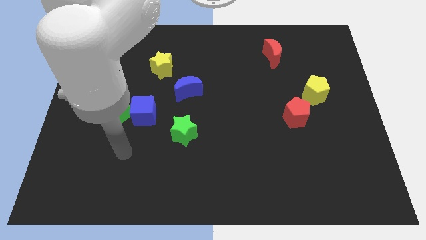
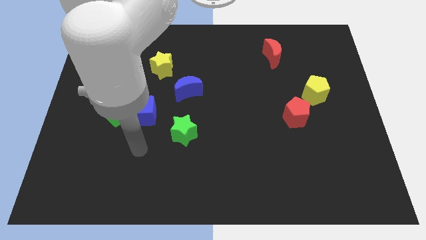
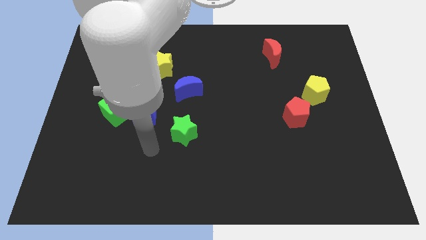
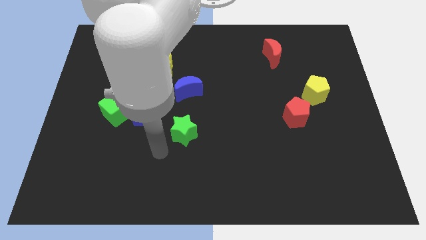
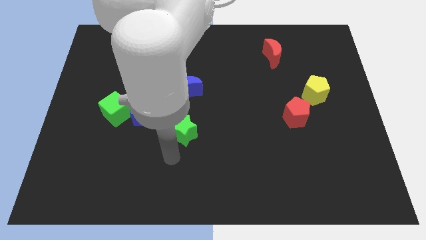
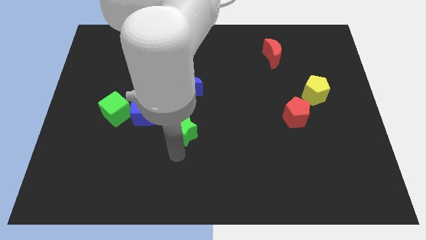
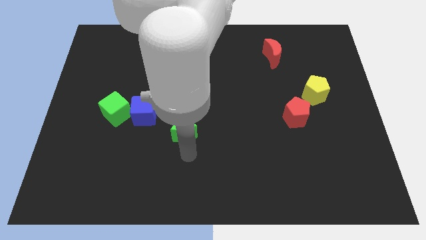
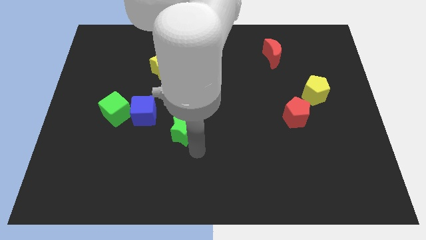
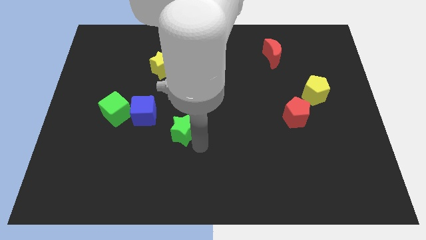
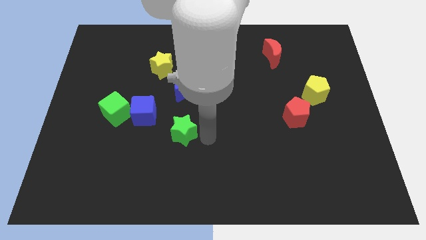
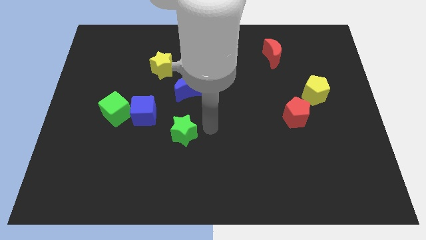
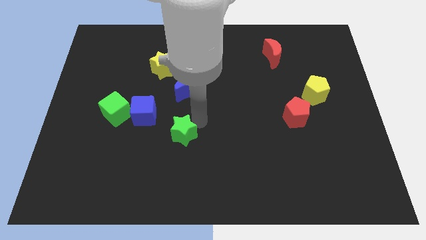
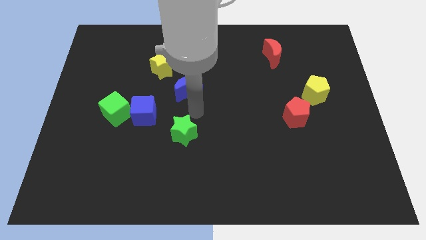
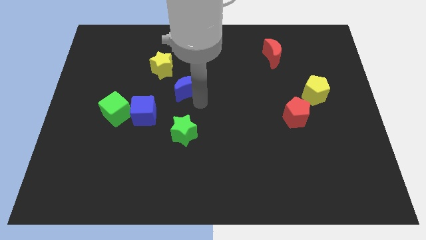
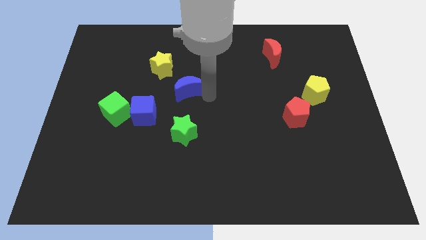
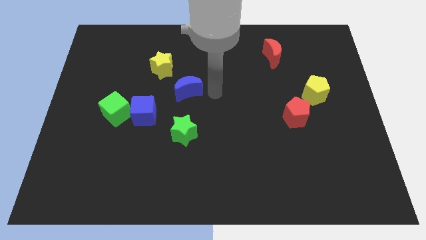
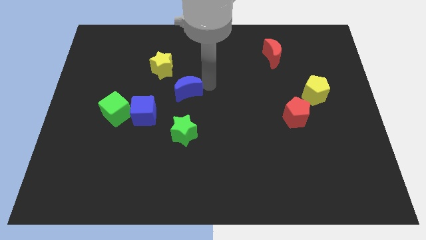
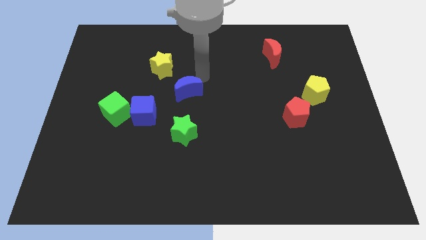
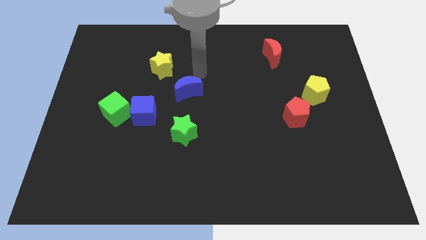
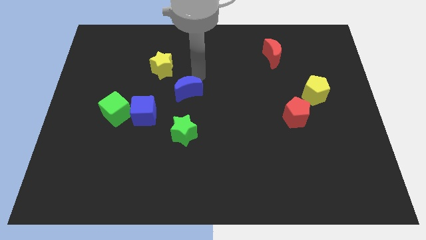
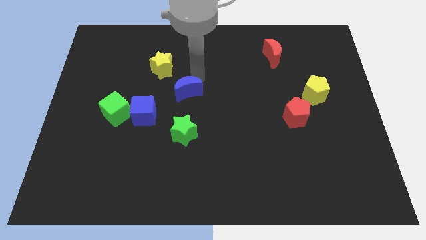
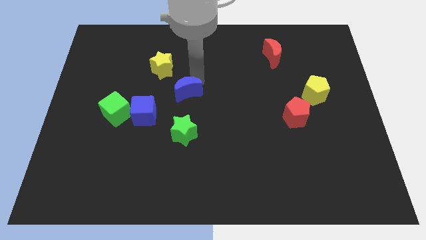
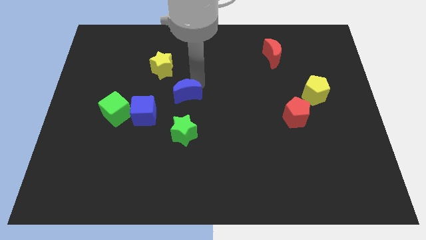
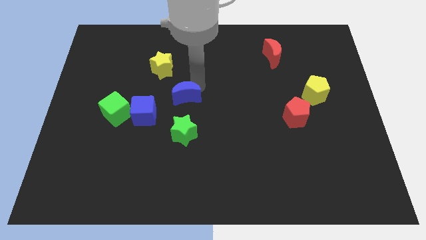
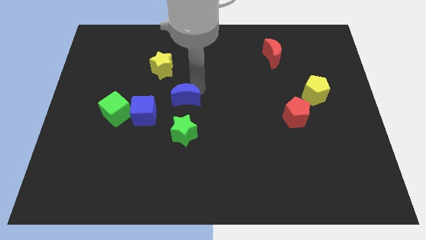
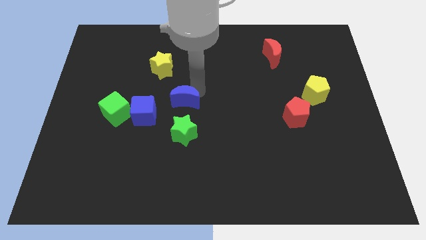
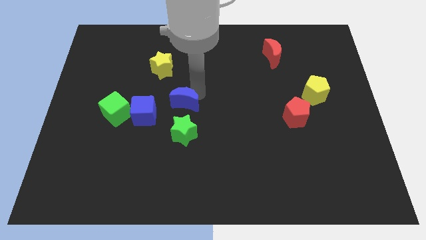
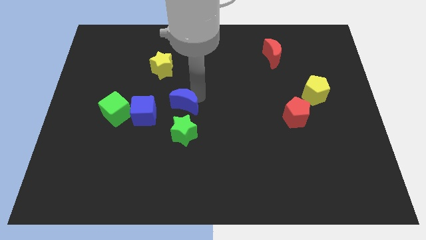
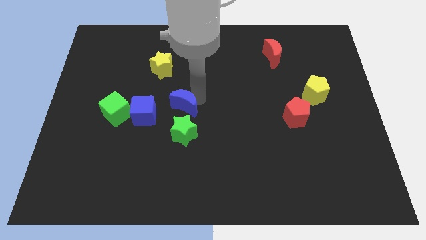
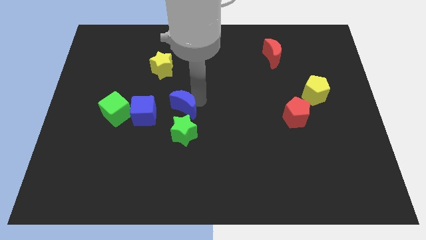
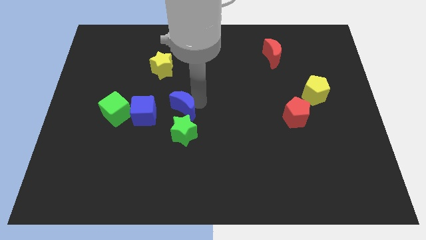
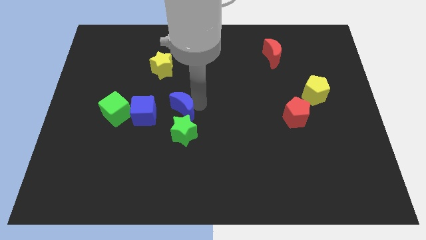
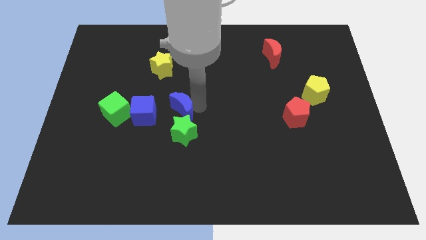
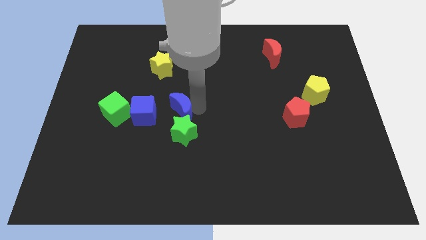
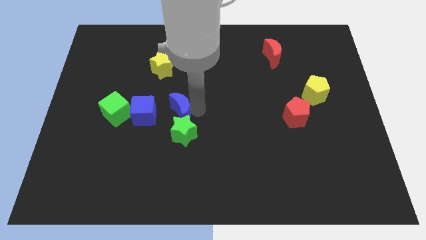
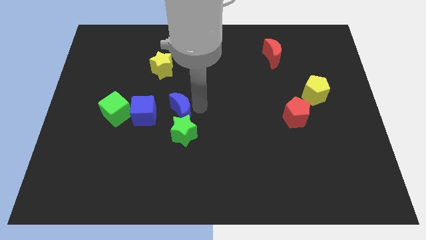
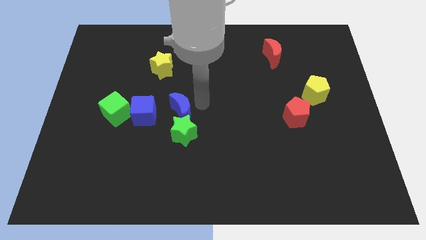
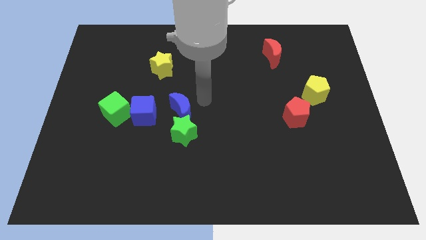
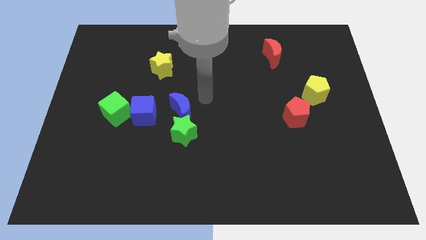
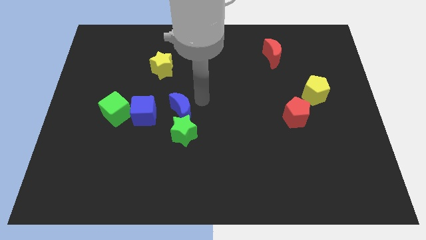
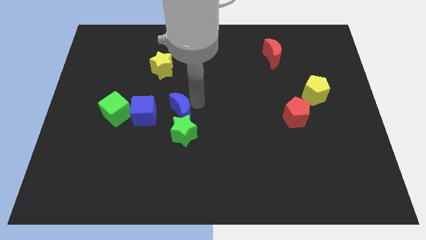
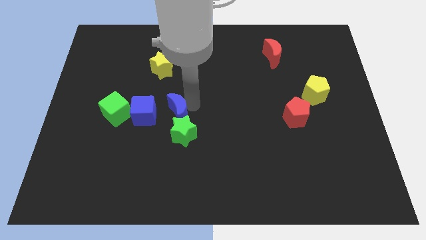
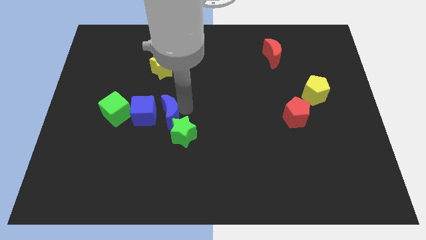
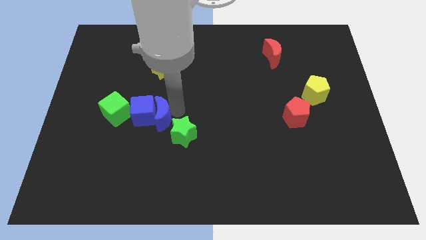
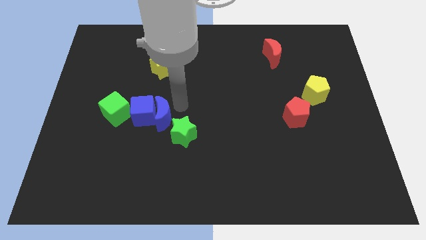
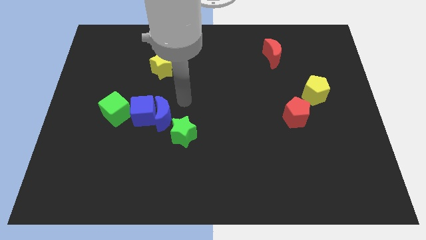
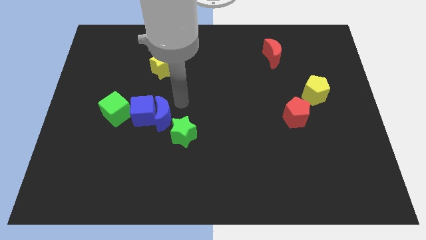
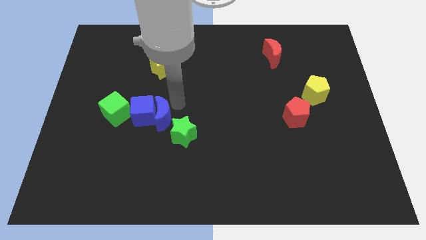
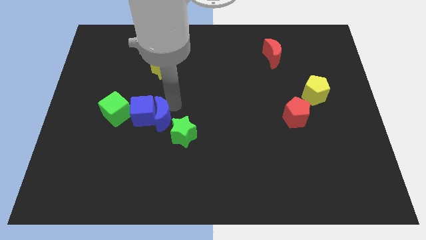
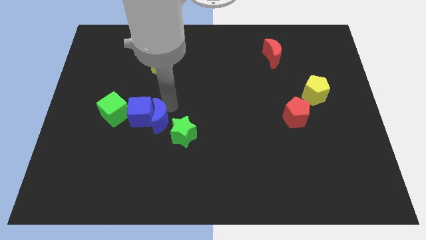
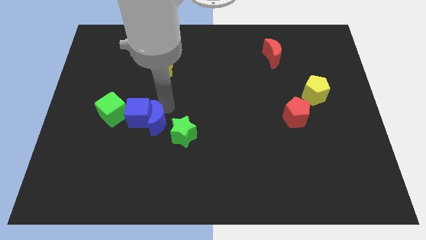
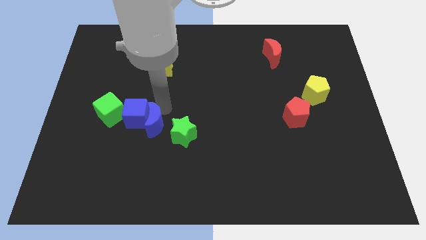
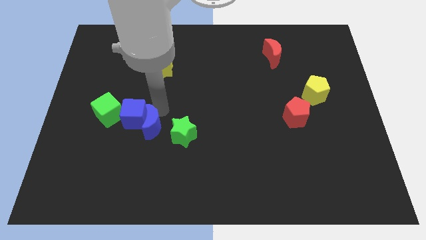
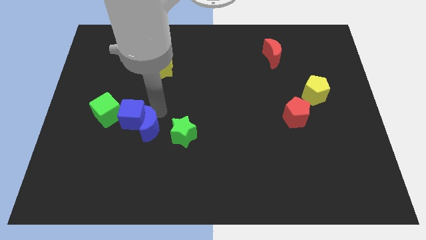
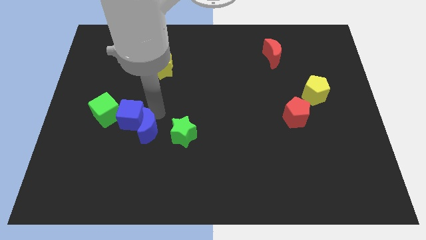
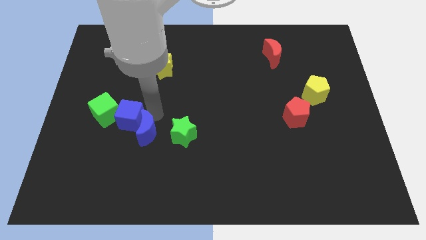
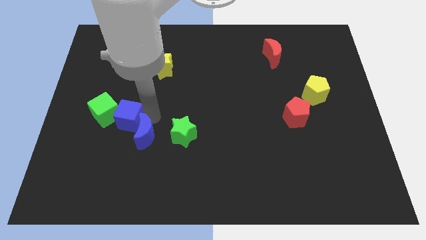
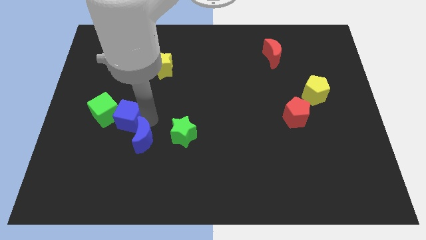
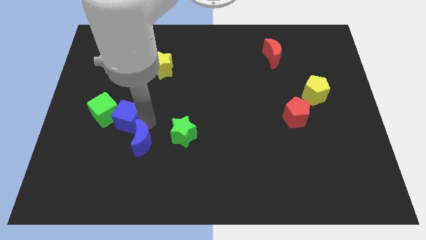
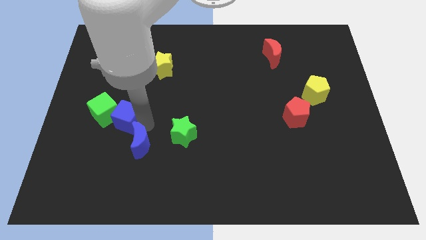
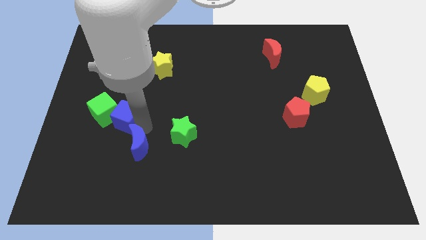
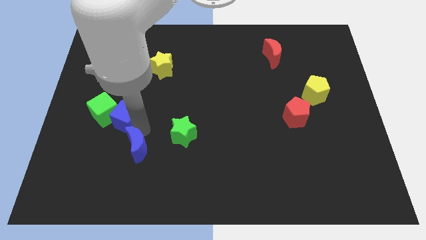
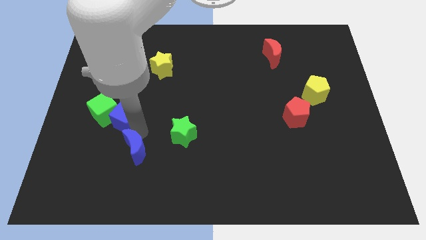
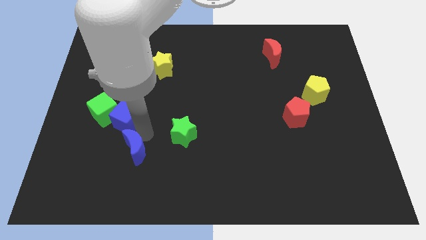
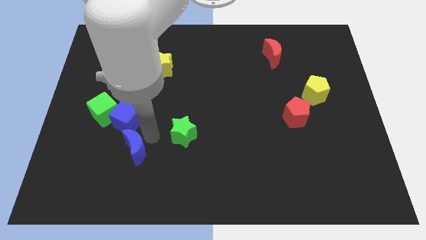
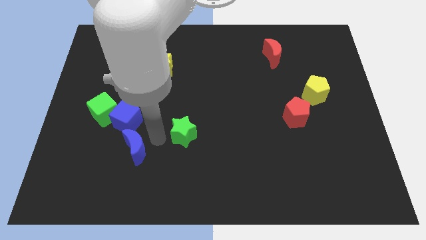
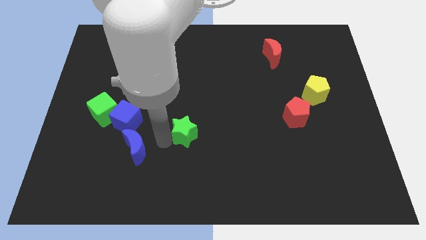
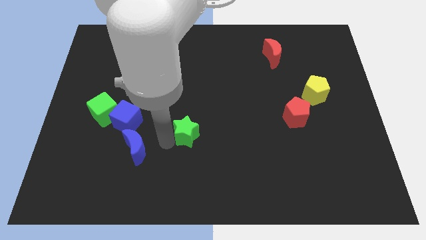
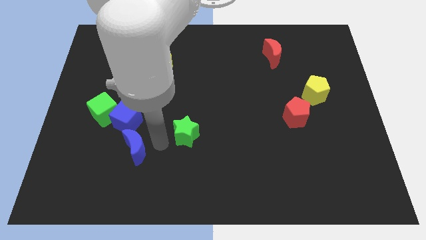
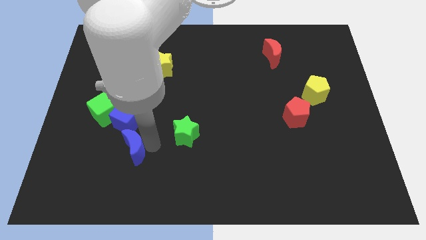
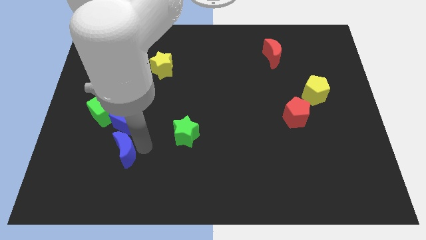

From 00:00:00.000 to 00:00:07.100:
push the blue moon down and then to the left

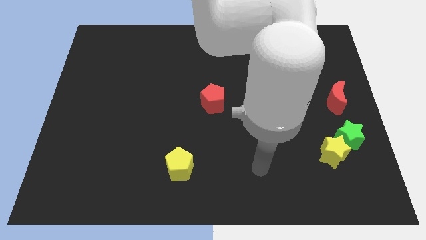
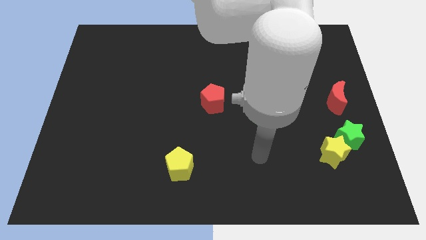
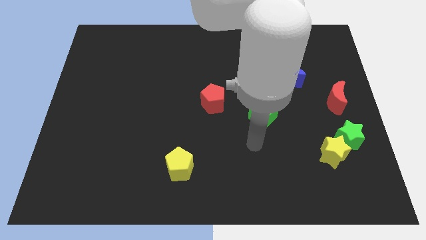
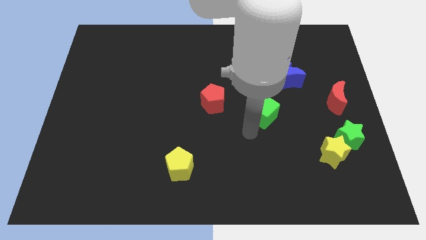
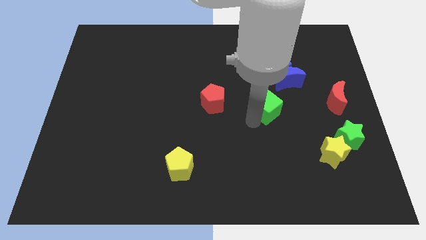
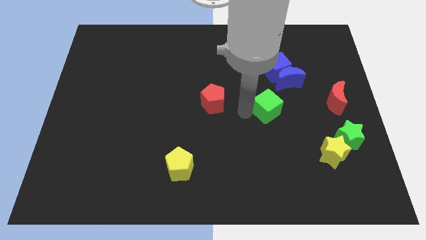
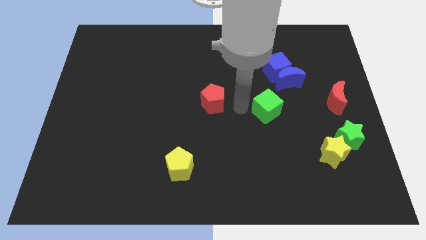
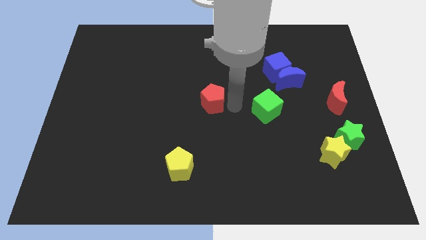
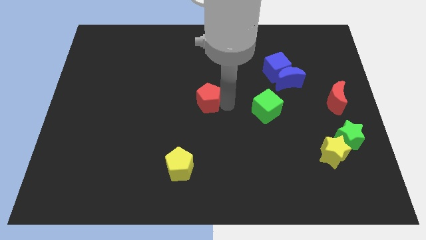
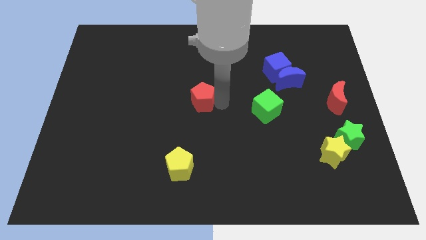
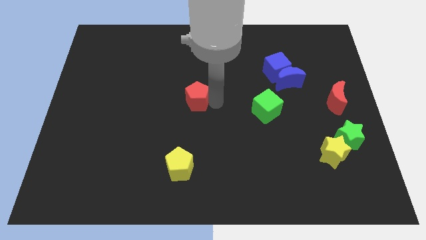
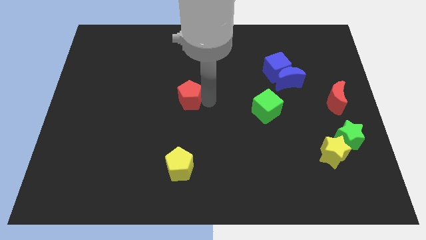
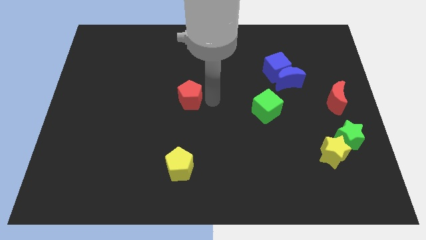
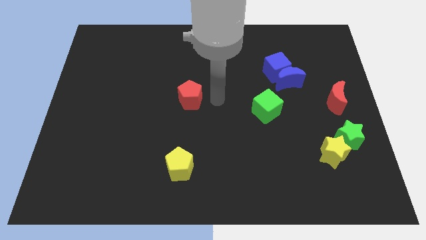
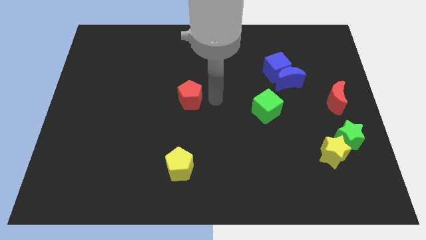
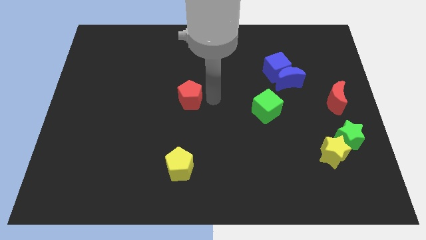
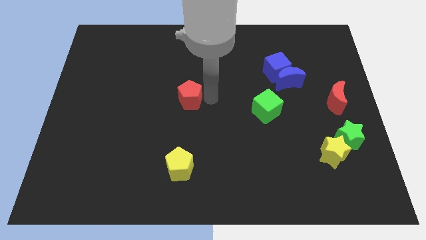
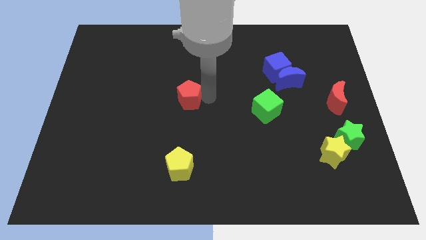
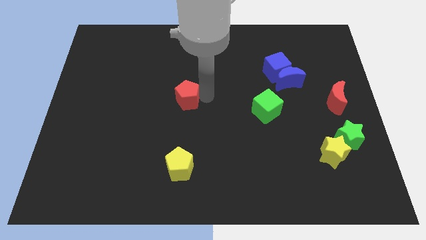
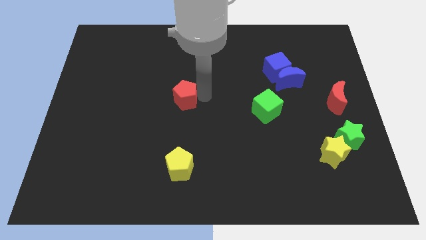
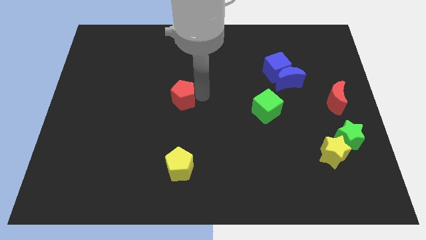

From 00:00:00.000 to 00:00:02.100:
move the red pentagon to the left a bit
